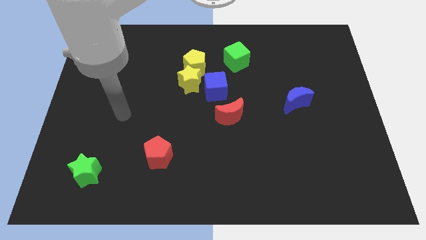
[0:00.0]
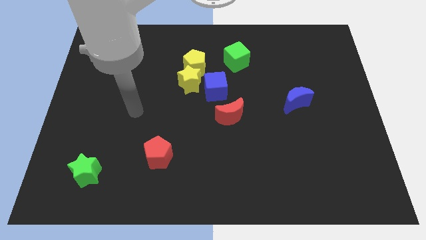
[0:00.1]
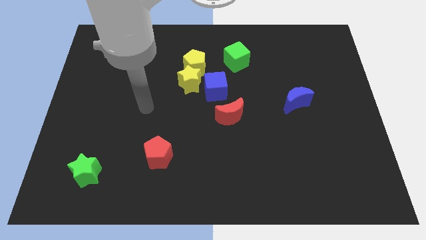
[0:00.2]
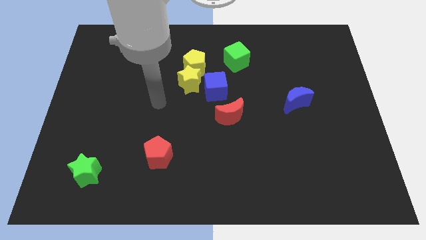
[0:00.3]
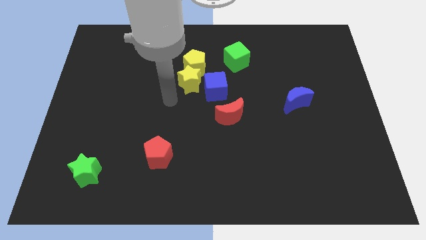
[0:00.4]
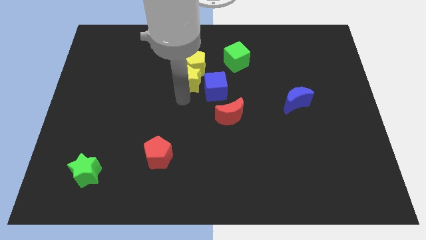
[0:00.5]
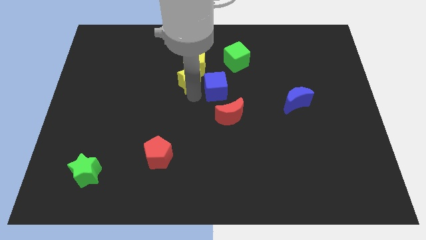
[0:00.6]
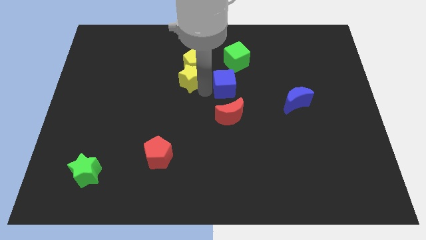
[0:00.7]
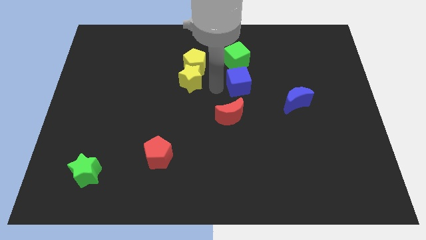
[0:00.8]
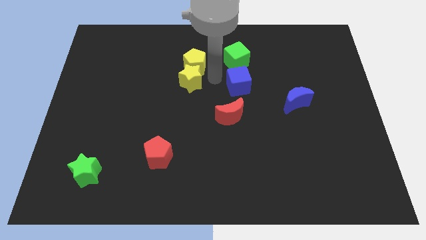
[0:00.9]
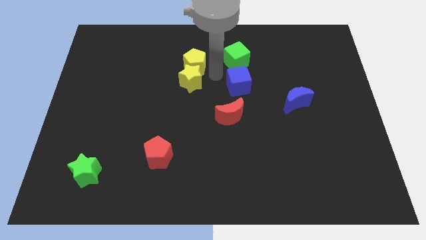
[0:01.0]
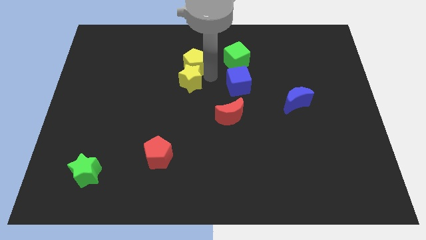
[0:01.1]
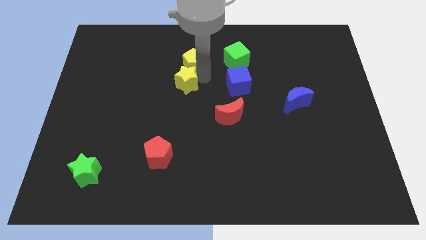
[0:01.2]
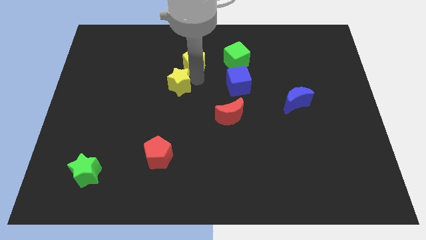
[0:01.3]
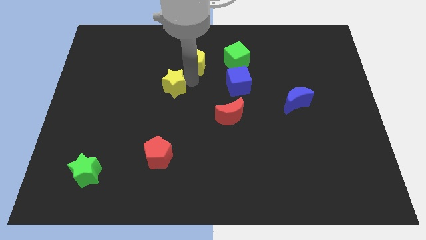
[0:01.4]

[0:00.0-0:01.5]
separate the yellow star from the yellow pentagon and blue cube

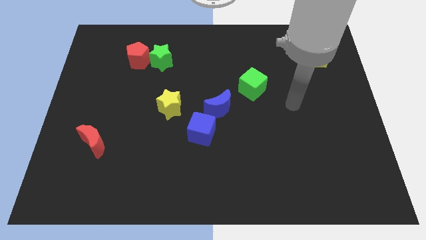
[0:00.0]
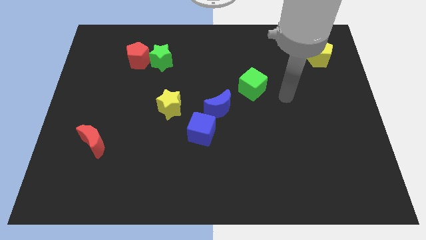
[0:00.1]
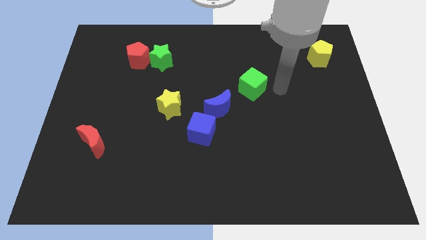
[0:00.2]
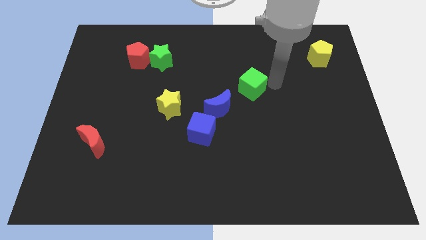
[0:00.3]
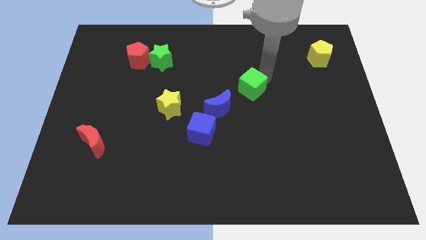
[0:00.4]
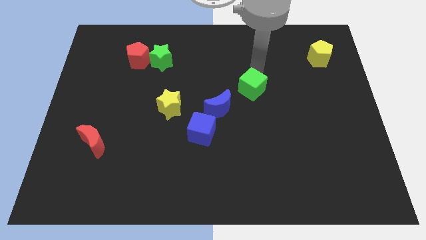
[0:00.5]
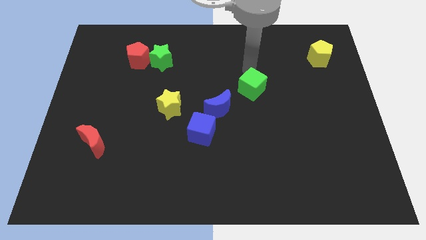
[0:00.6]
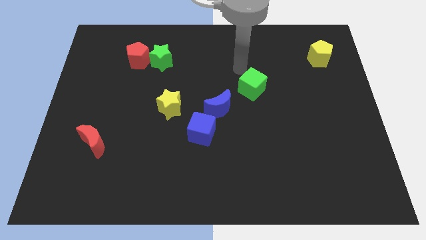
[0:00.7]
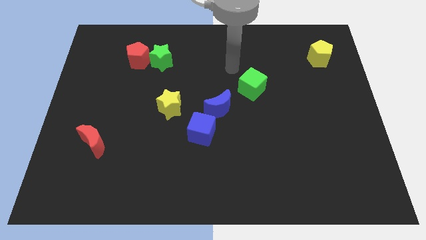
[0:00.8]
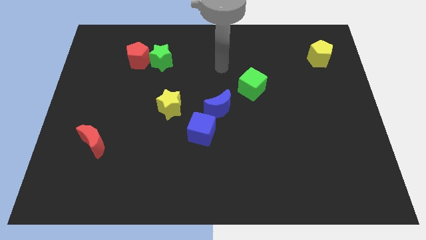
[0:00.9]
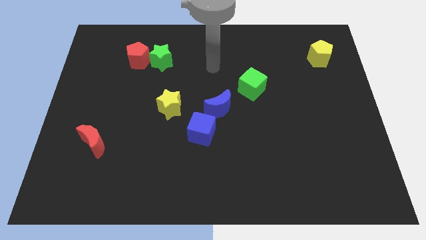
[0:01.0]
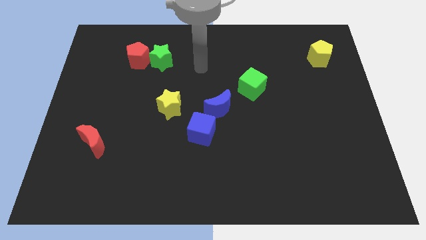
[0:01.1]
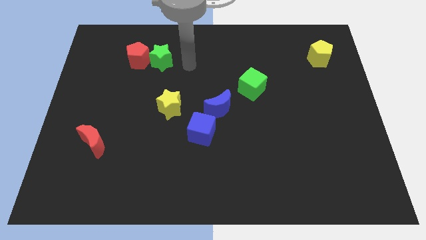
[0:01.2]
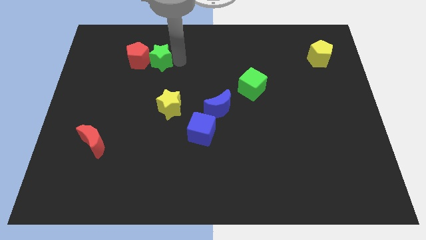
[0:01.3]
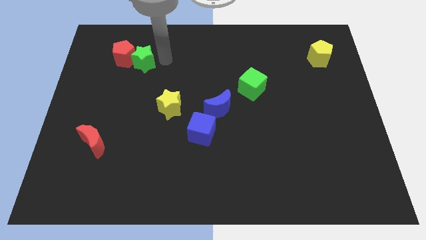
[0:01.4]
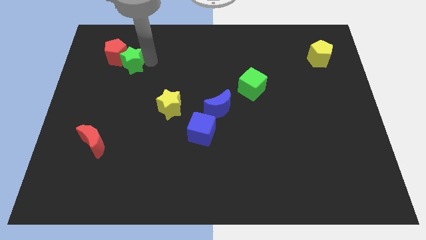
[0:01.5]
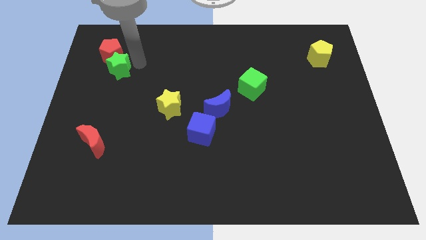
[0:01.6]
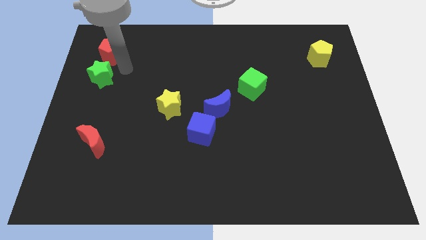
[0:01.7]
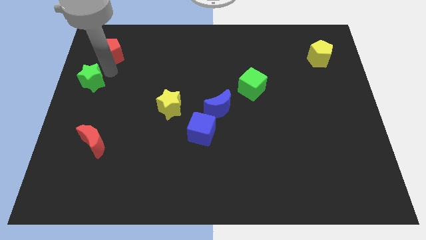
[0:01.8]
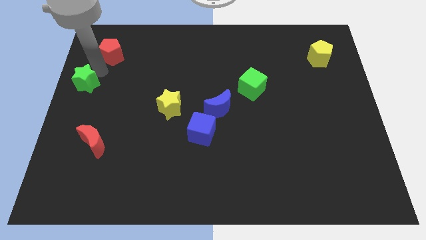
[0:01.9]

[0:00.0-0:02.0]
pull the red pentagon apart from the green star

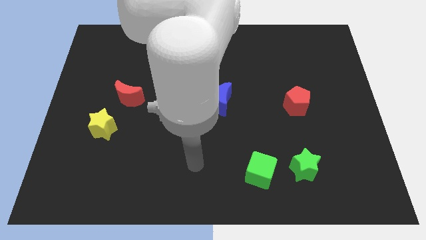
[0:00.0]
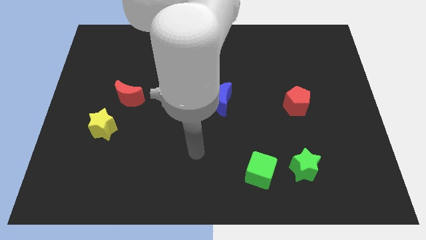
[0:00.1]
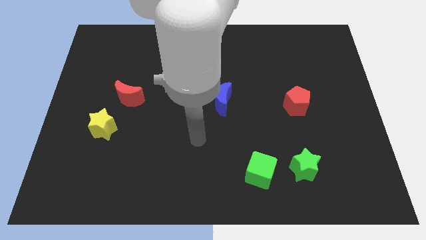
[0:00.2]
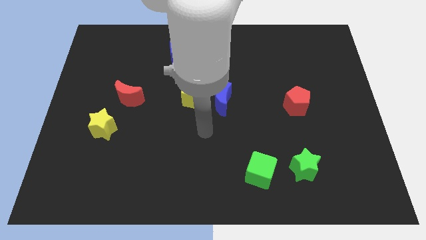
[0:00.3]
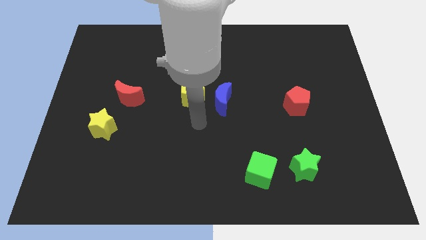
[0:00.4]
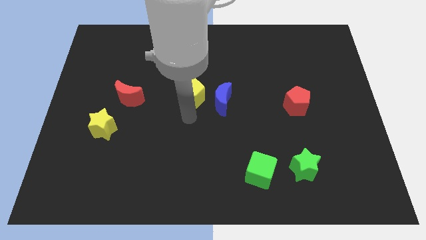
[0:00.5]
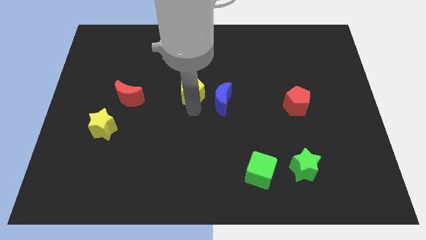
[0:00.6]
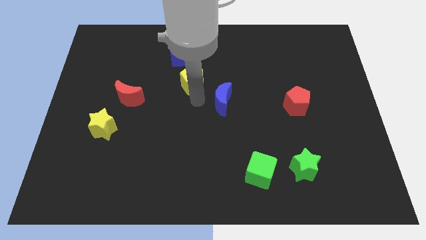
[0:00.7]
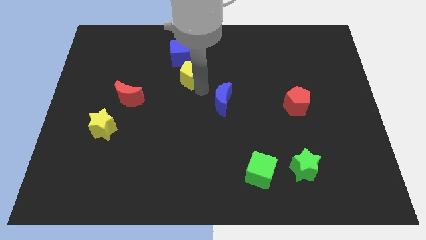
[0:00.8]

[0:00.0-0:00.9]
pull the blue moon apart from the yellow pentagon

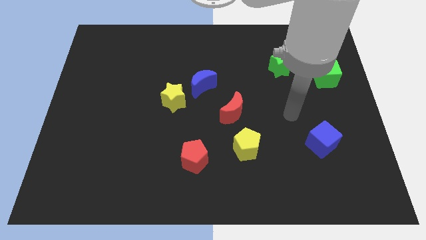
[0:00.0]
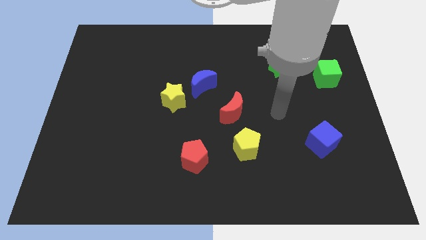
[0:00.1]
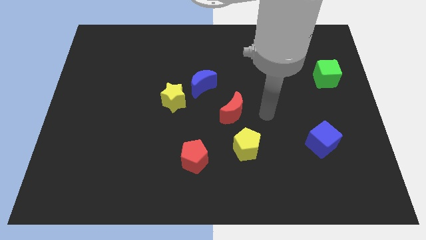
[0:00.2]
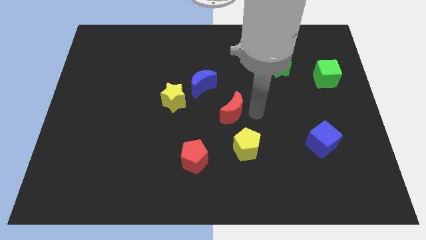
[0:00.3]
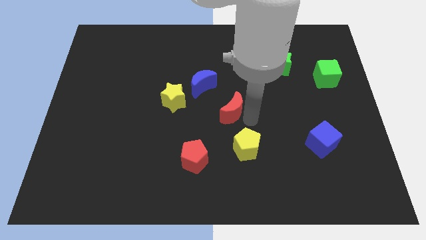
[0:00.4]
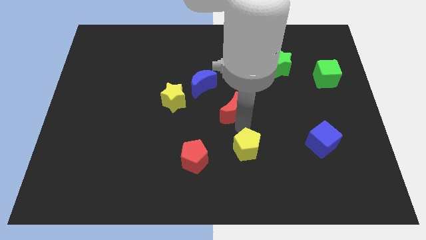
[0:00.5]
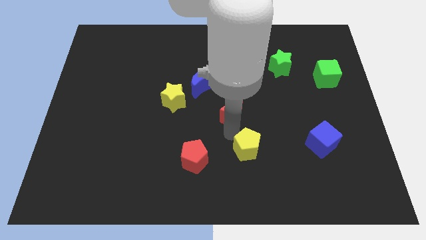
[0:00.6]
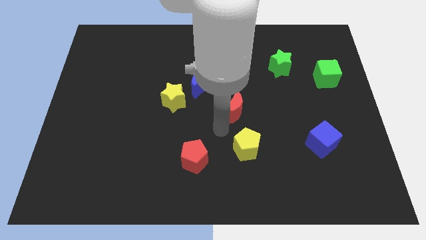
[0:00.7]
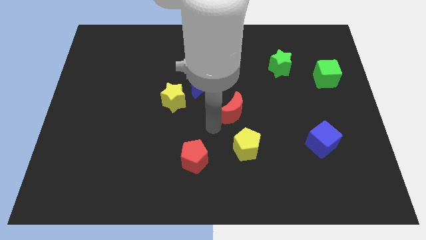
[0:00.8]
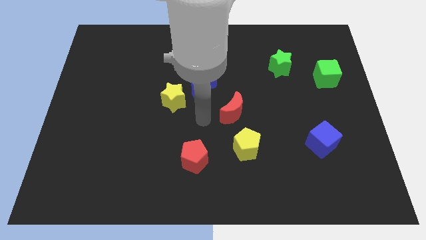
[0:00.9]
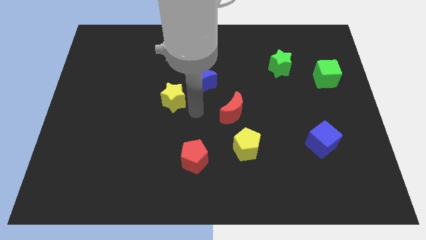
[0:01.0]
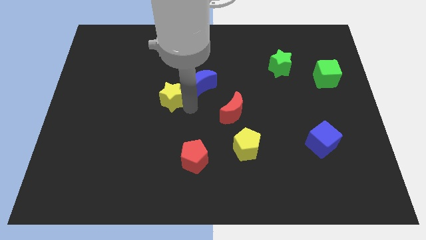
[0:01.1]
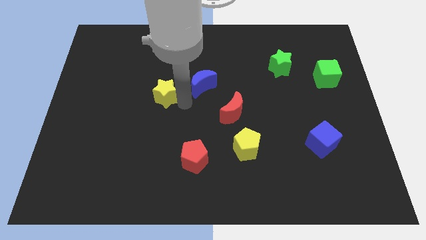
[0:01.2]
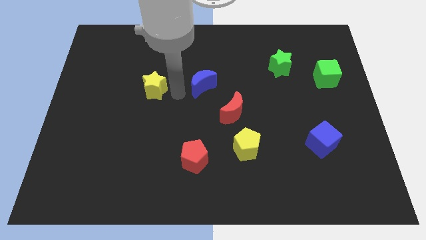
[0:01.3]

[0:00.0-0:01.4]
move the blue moon away from the yellow star

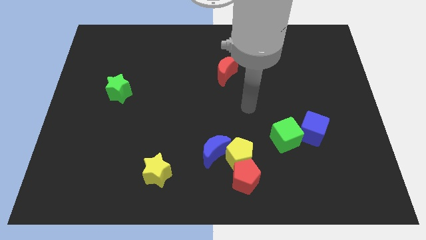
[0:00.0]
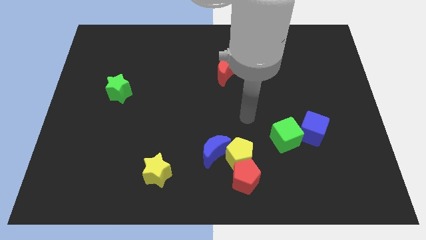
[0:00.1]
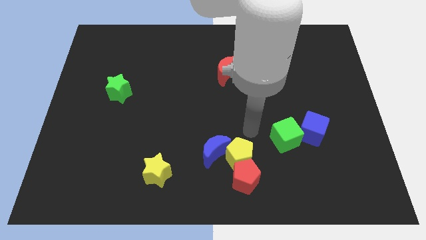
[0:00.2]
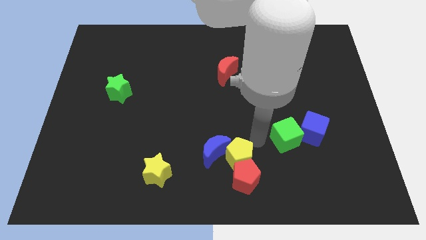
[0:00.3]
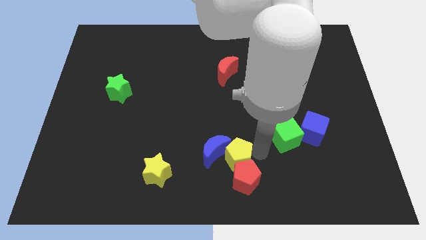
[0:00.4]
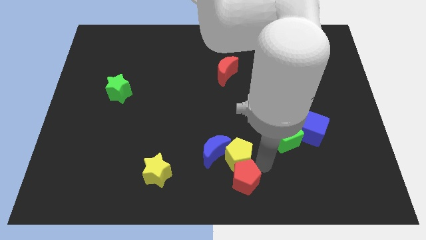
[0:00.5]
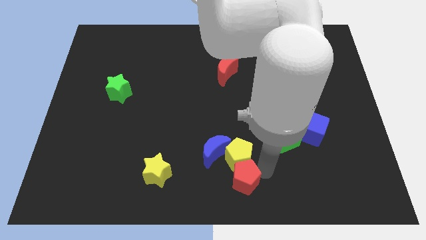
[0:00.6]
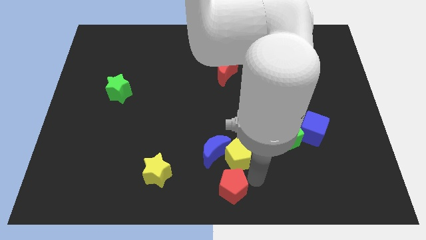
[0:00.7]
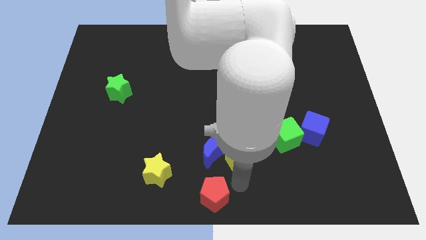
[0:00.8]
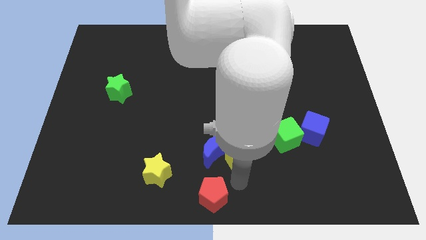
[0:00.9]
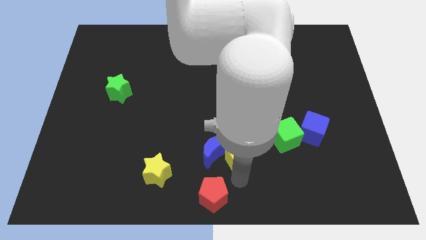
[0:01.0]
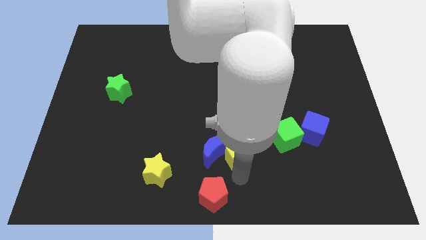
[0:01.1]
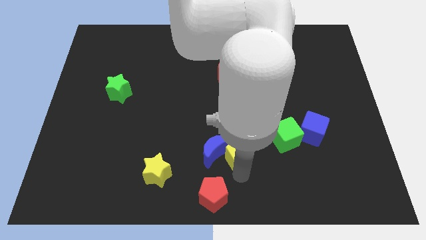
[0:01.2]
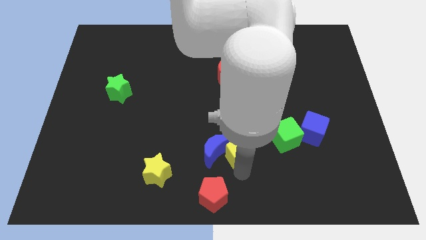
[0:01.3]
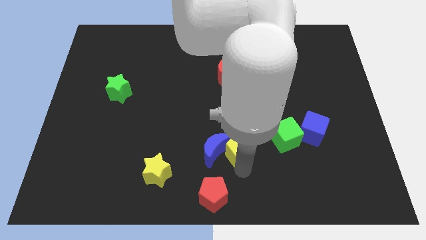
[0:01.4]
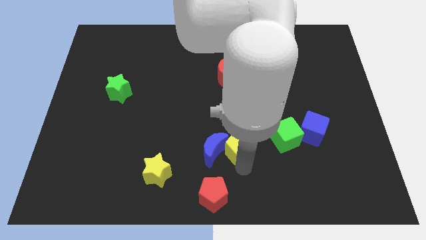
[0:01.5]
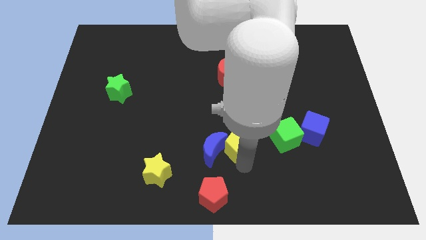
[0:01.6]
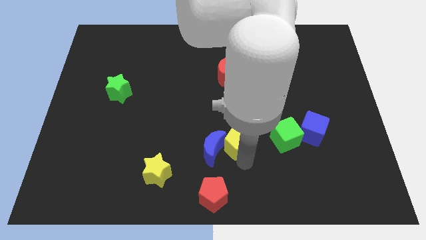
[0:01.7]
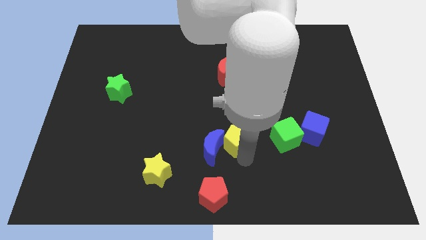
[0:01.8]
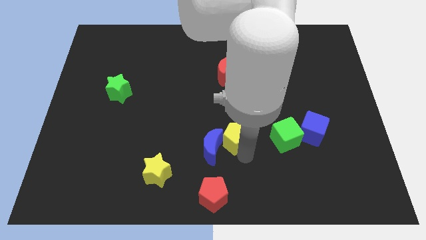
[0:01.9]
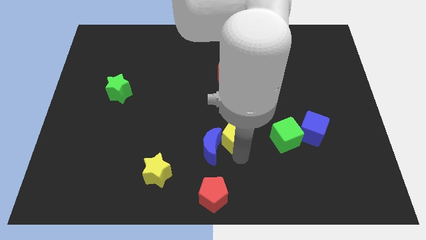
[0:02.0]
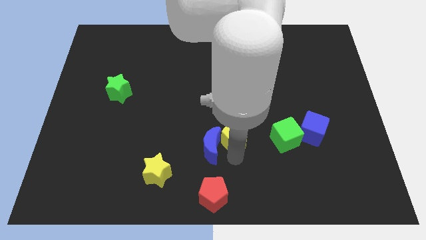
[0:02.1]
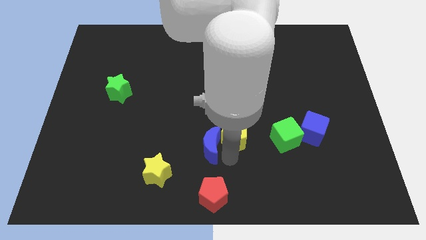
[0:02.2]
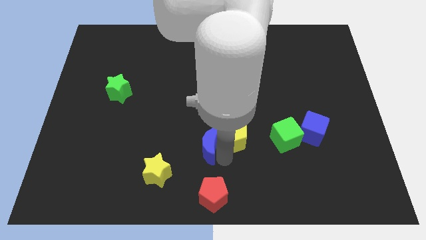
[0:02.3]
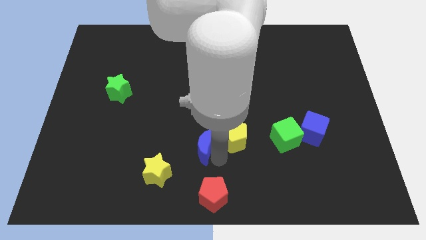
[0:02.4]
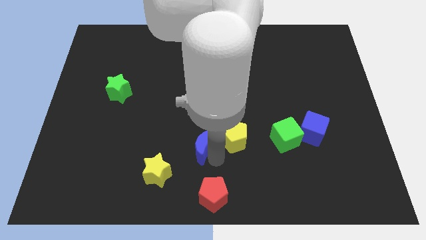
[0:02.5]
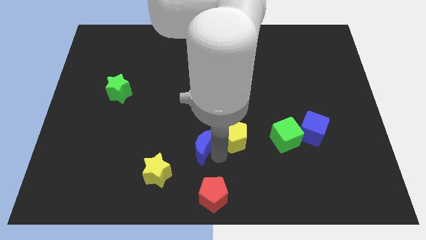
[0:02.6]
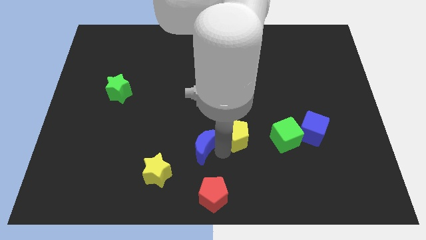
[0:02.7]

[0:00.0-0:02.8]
move the yellow pentagon away from the red pentagon and blue moon

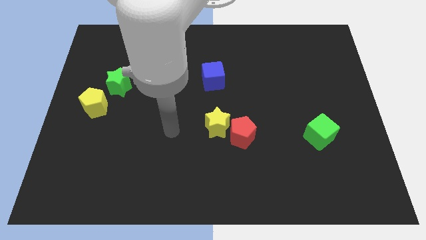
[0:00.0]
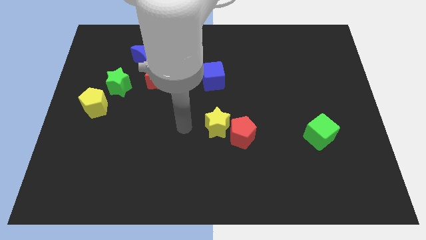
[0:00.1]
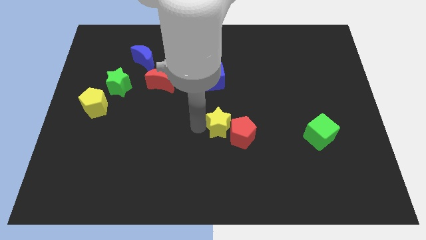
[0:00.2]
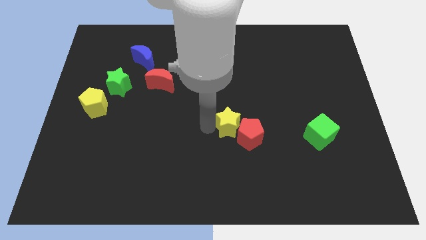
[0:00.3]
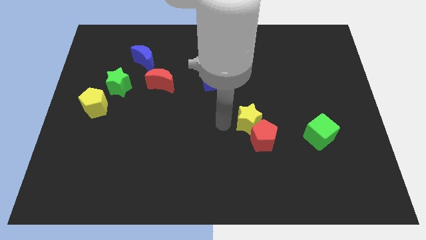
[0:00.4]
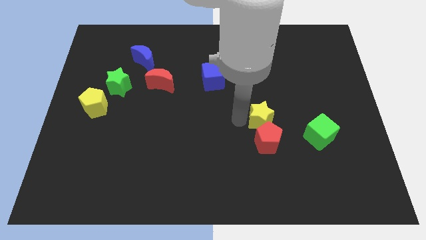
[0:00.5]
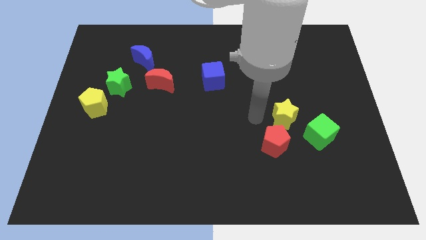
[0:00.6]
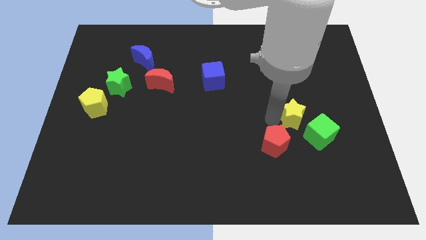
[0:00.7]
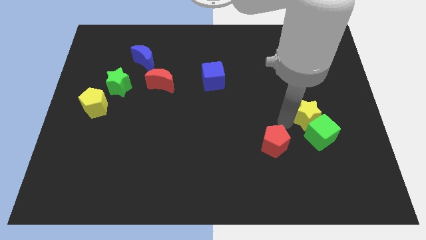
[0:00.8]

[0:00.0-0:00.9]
pull the red pentagon apart from the yellow star
